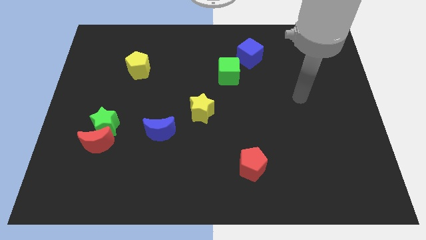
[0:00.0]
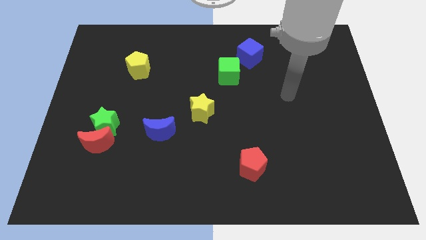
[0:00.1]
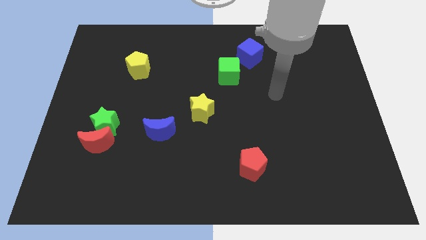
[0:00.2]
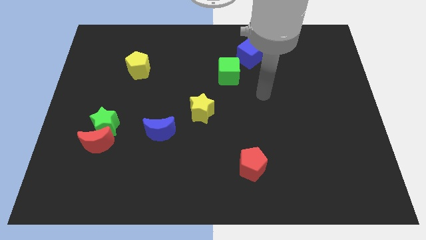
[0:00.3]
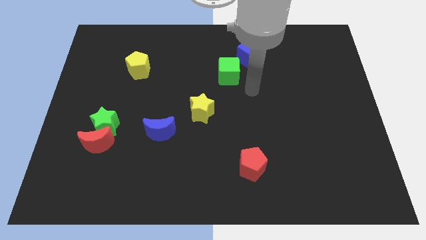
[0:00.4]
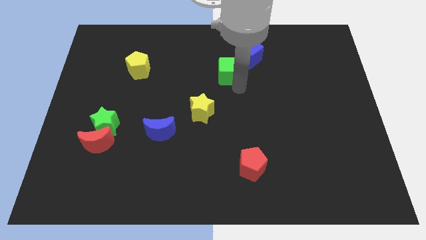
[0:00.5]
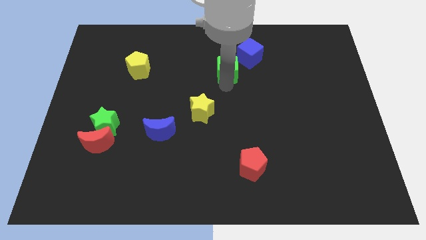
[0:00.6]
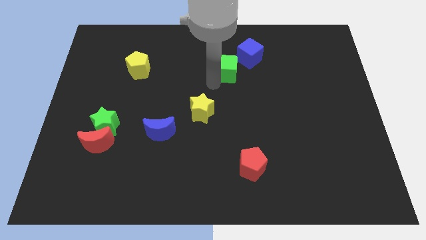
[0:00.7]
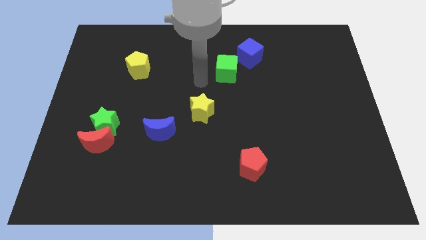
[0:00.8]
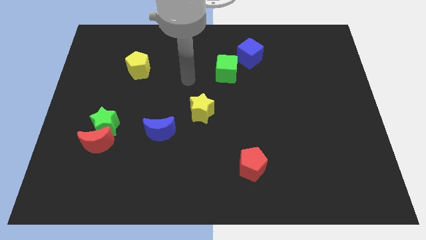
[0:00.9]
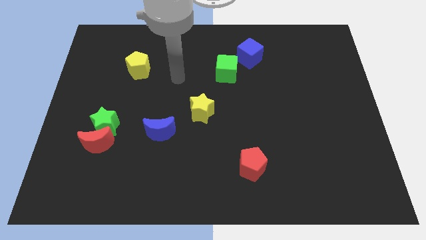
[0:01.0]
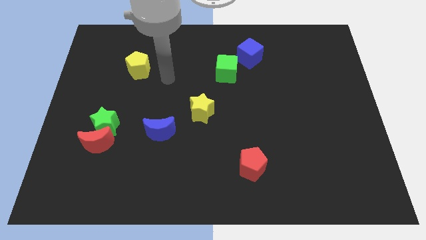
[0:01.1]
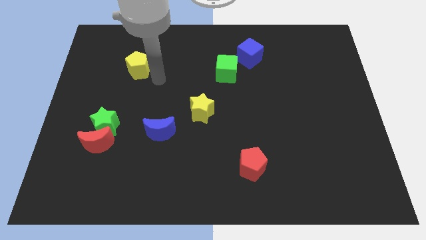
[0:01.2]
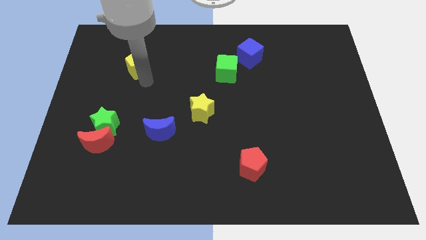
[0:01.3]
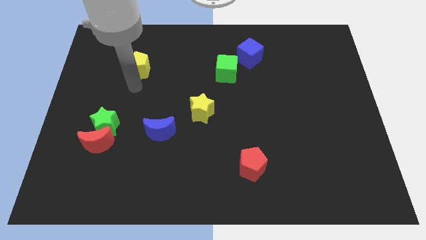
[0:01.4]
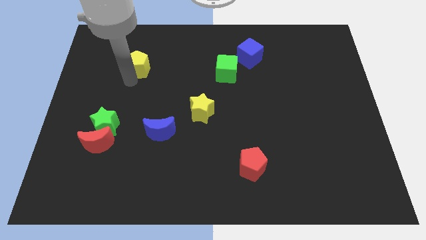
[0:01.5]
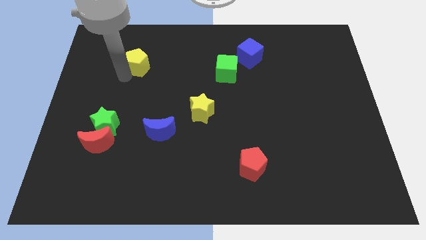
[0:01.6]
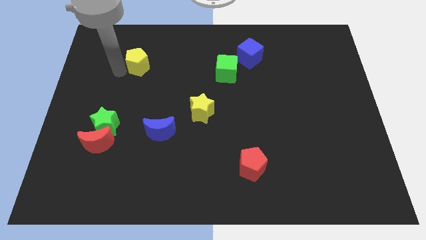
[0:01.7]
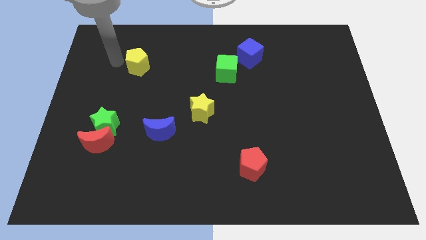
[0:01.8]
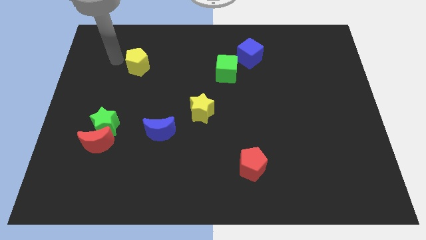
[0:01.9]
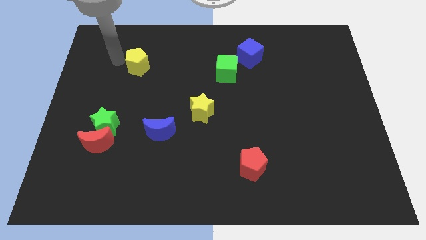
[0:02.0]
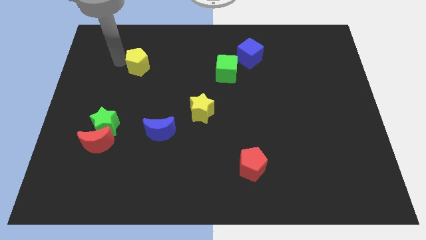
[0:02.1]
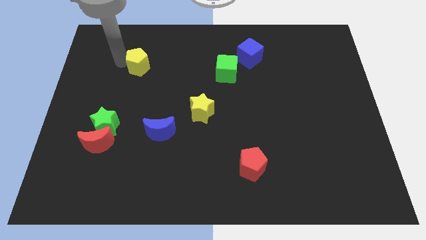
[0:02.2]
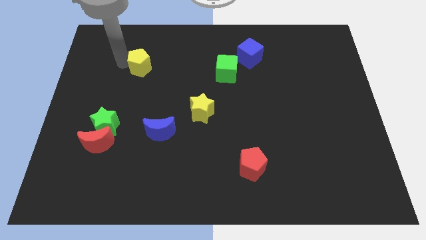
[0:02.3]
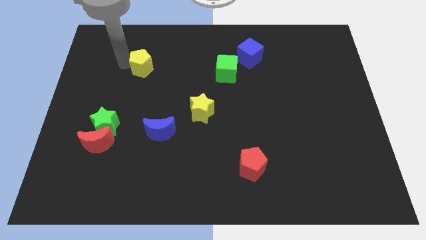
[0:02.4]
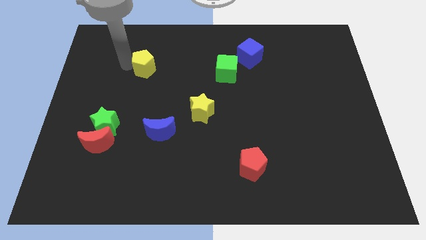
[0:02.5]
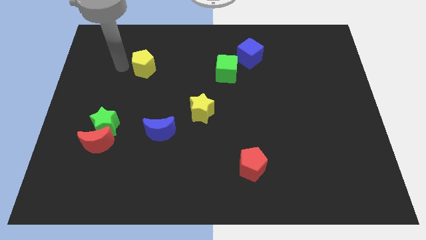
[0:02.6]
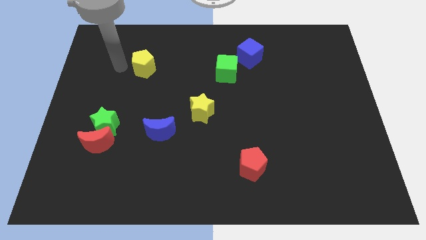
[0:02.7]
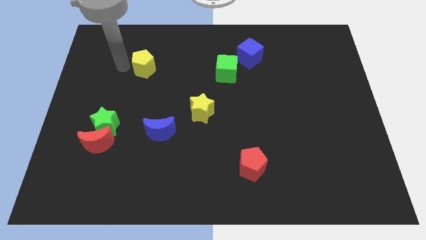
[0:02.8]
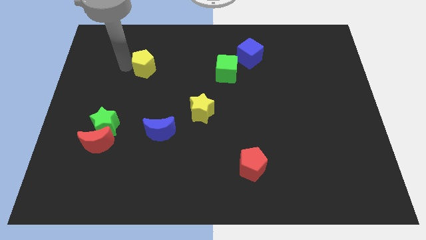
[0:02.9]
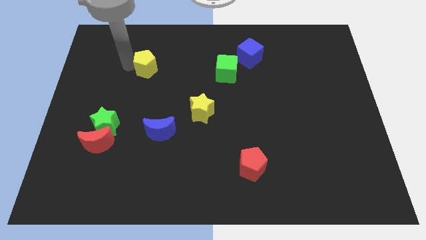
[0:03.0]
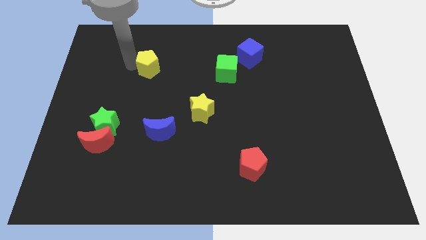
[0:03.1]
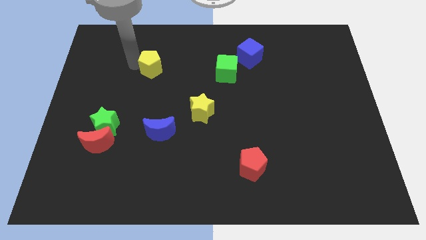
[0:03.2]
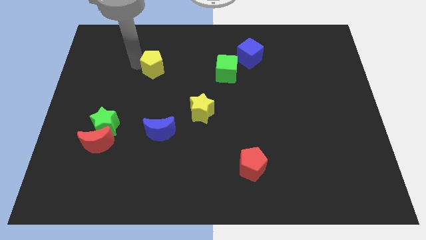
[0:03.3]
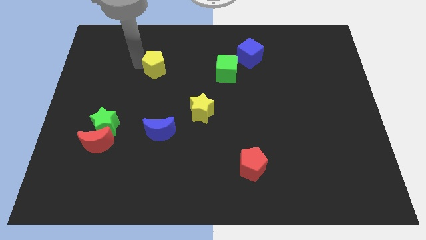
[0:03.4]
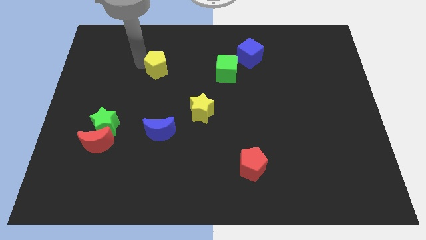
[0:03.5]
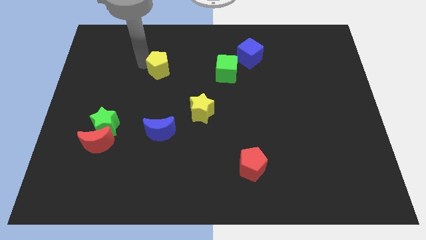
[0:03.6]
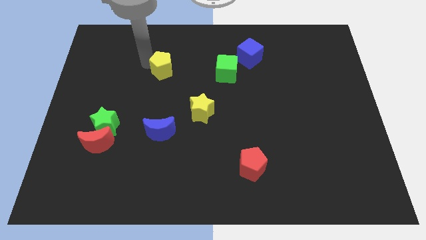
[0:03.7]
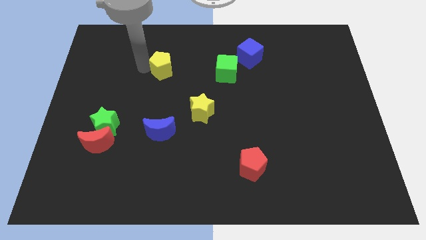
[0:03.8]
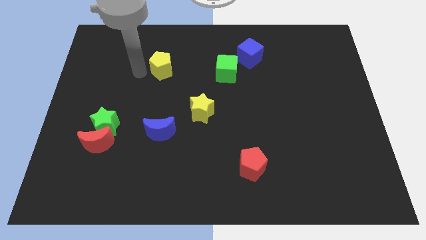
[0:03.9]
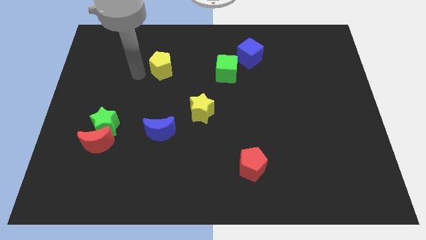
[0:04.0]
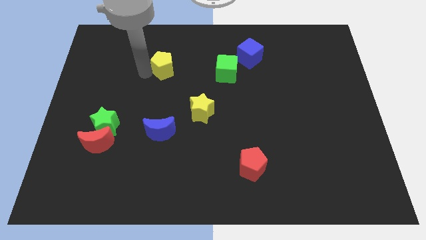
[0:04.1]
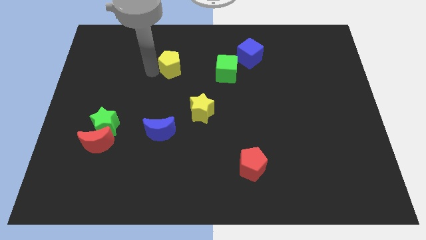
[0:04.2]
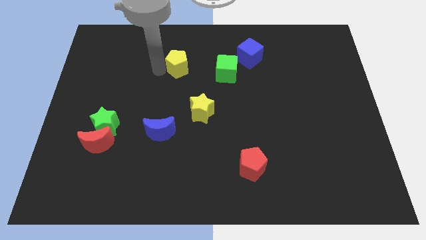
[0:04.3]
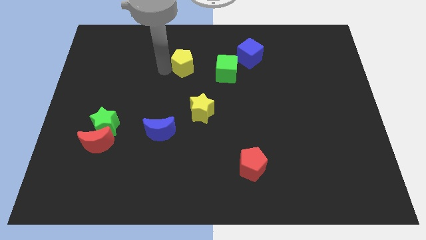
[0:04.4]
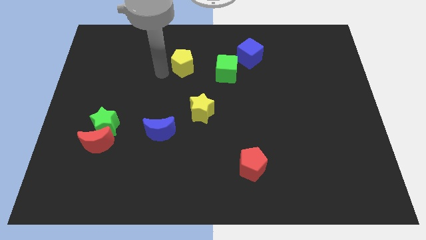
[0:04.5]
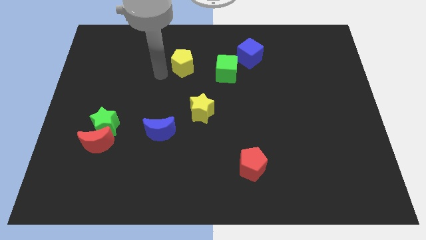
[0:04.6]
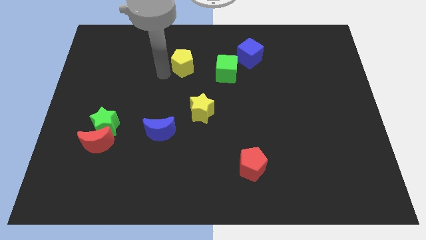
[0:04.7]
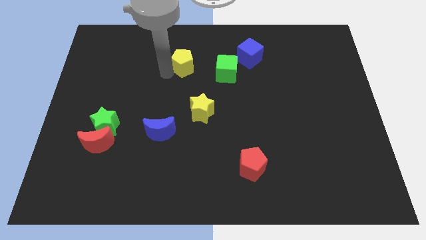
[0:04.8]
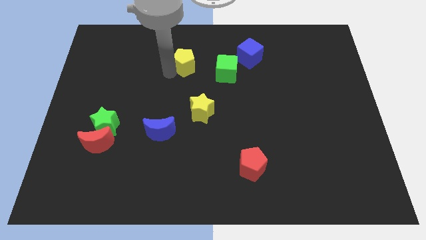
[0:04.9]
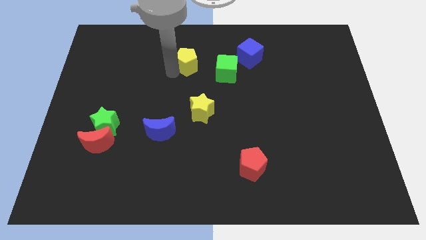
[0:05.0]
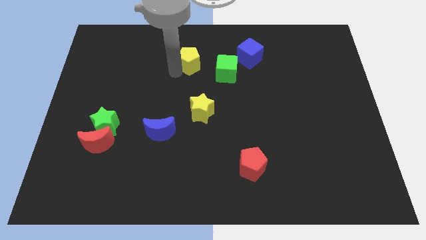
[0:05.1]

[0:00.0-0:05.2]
move the yellow pentagon left of the blue cube

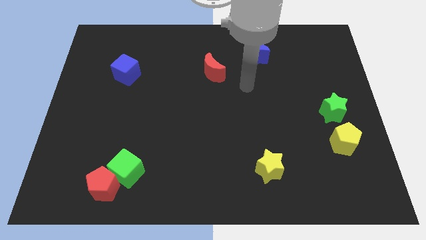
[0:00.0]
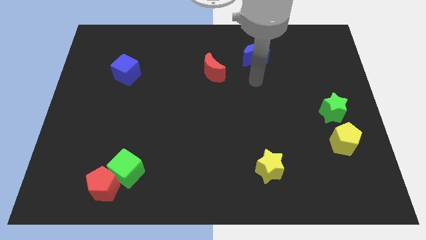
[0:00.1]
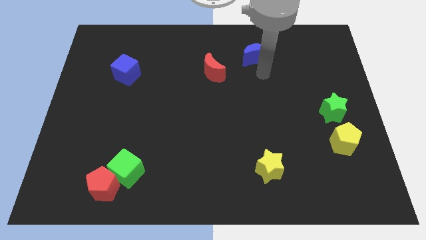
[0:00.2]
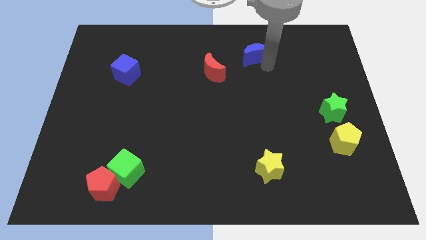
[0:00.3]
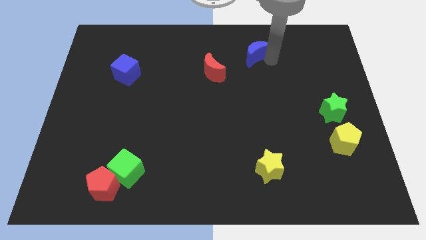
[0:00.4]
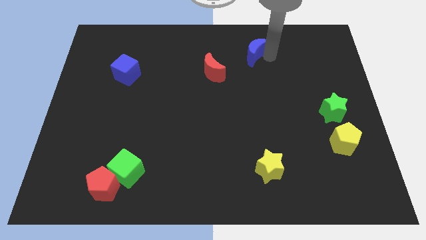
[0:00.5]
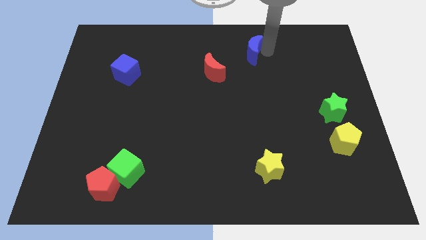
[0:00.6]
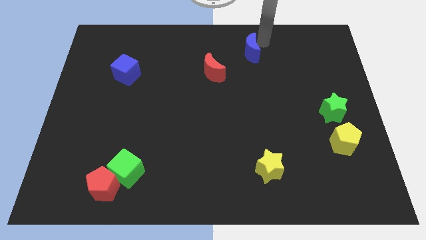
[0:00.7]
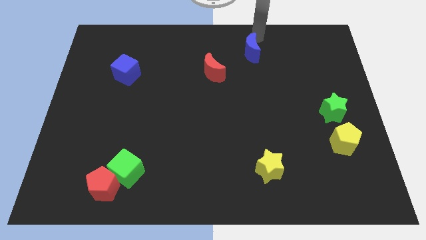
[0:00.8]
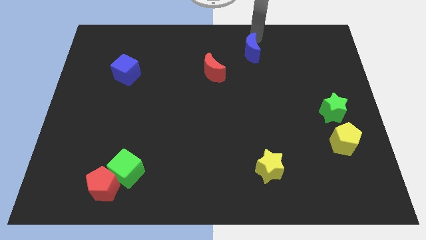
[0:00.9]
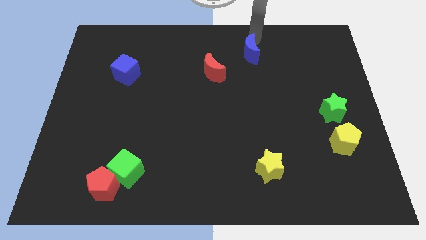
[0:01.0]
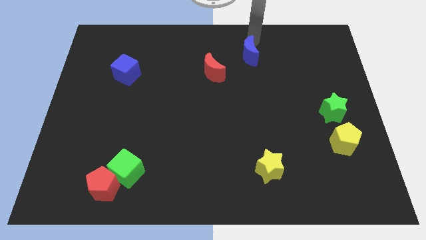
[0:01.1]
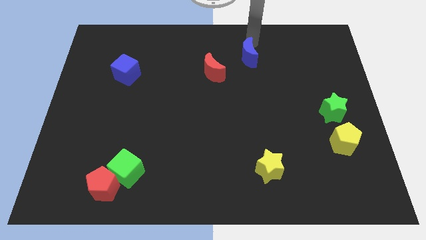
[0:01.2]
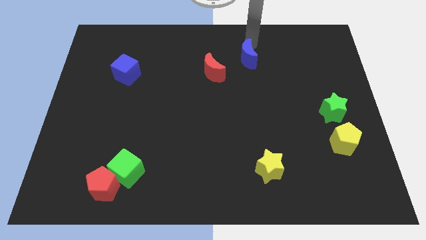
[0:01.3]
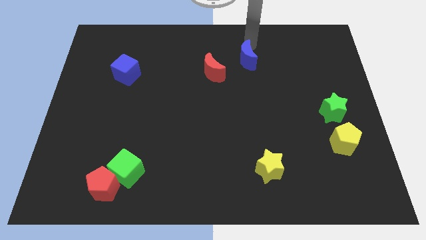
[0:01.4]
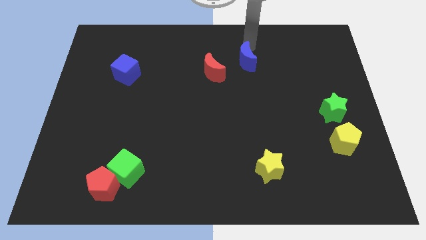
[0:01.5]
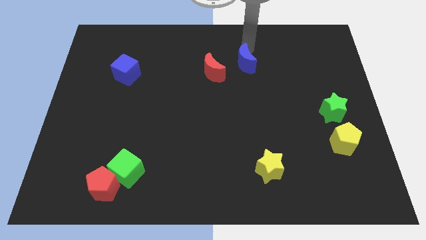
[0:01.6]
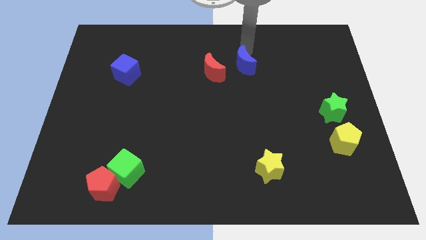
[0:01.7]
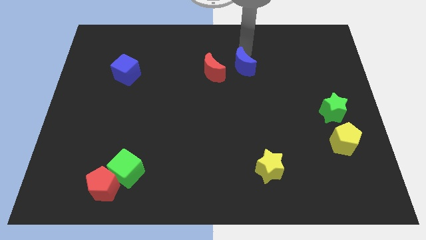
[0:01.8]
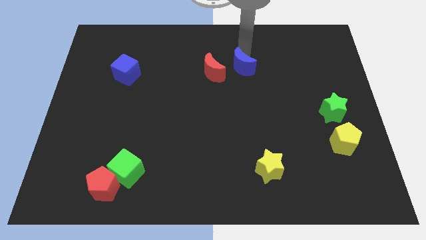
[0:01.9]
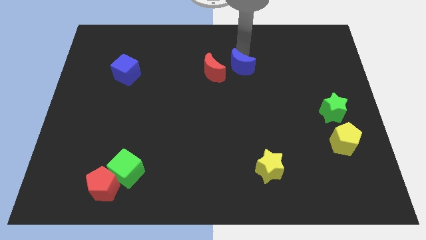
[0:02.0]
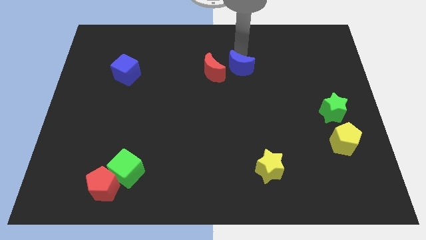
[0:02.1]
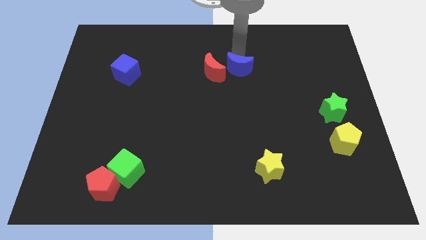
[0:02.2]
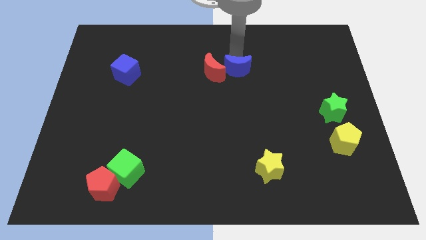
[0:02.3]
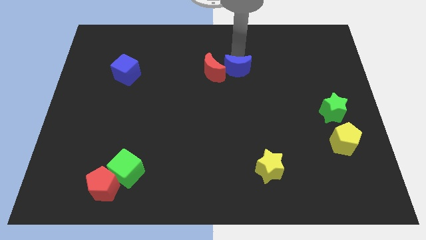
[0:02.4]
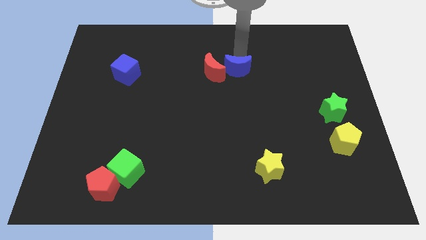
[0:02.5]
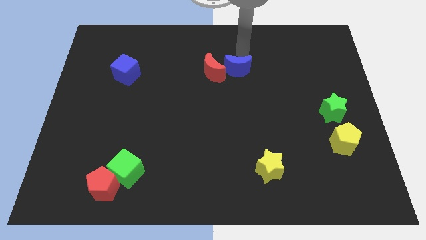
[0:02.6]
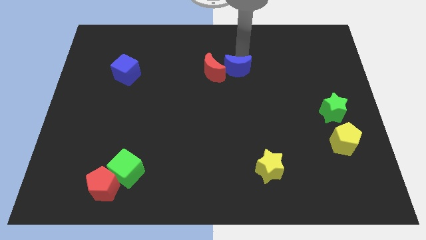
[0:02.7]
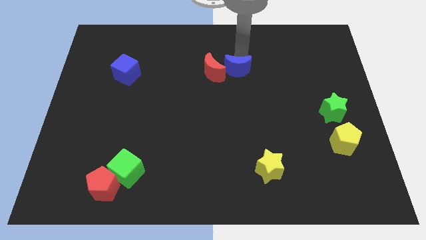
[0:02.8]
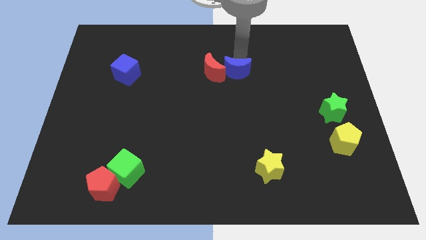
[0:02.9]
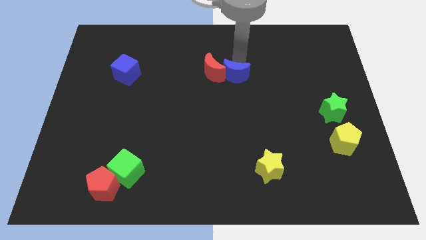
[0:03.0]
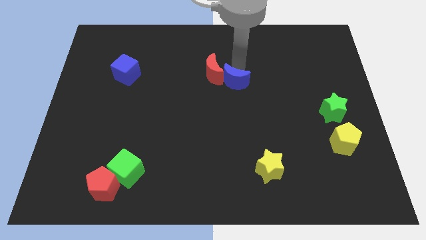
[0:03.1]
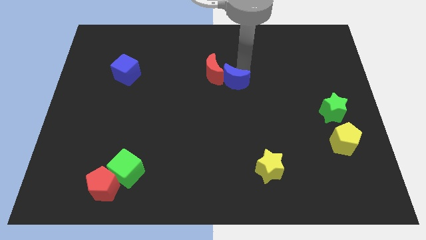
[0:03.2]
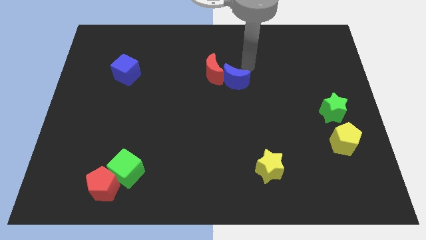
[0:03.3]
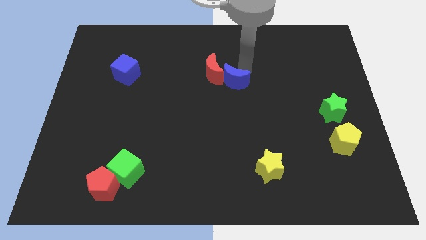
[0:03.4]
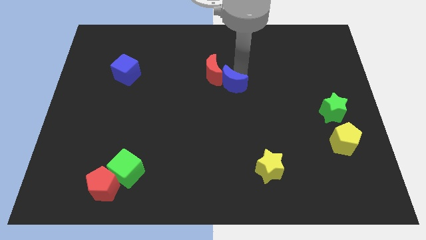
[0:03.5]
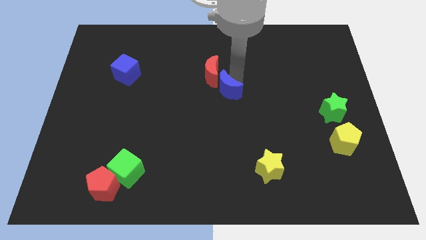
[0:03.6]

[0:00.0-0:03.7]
slide the blue moon to the bottom of the red moon
